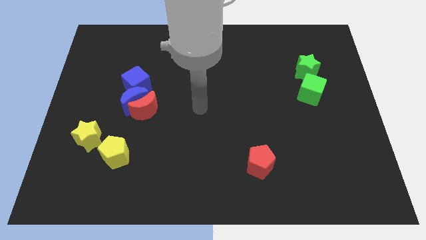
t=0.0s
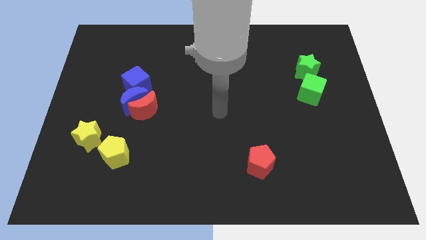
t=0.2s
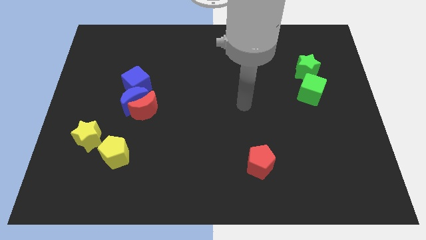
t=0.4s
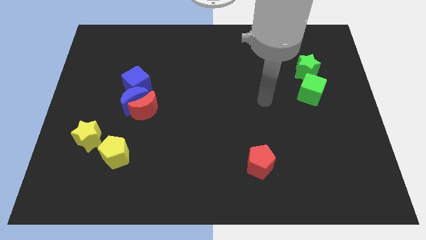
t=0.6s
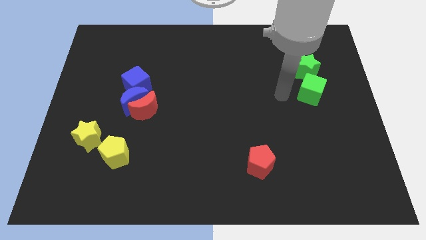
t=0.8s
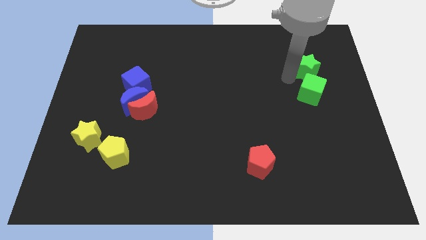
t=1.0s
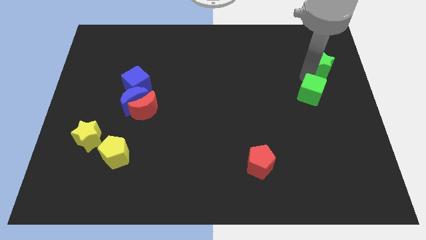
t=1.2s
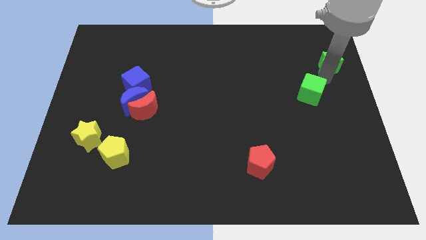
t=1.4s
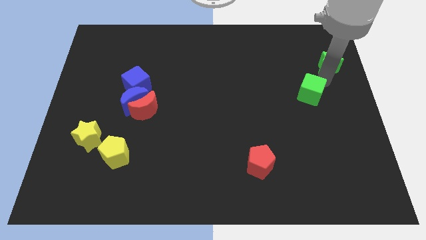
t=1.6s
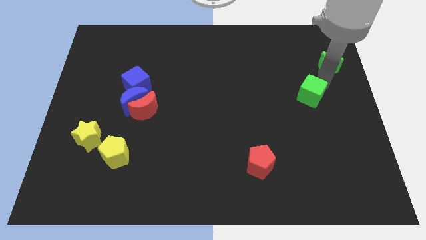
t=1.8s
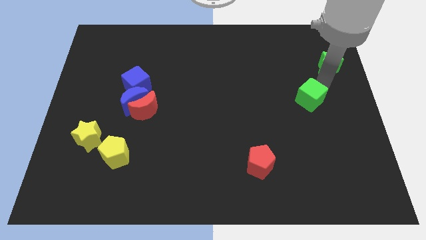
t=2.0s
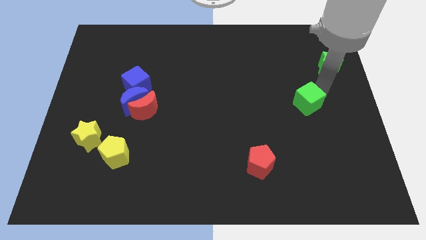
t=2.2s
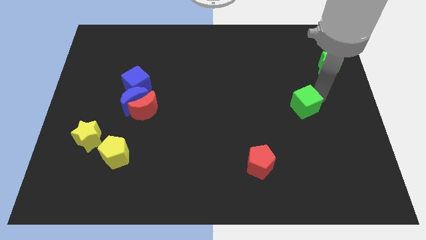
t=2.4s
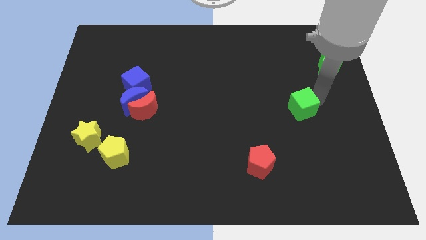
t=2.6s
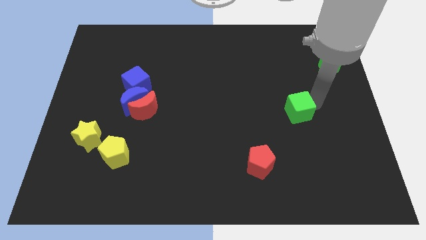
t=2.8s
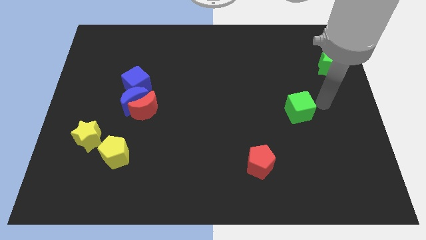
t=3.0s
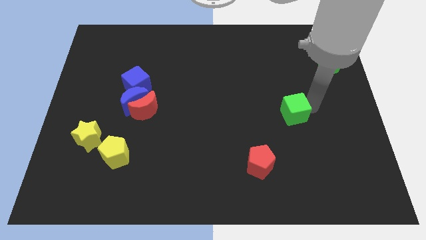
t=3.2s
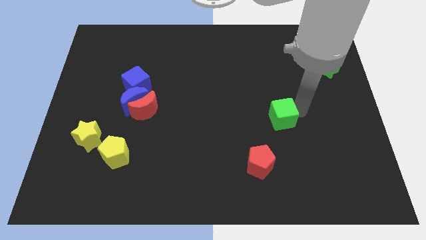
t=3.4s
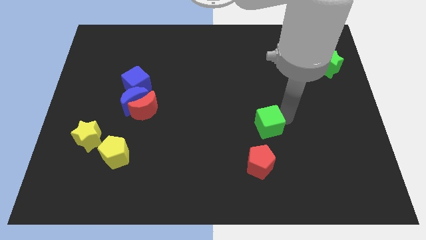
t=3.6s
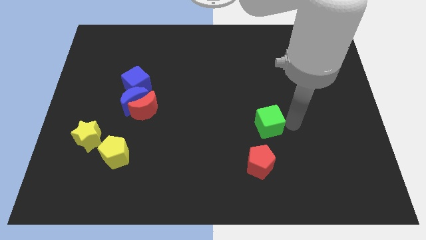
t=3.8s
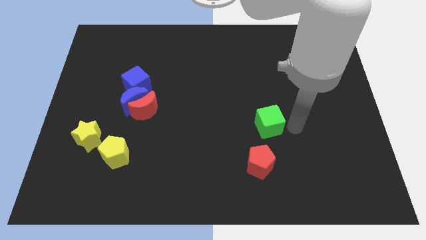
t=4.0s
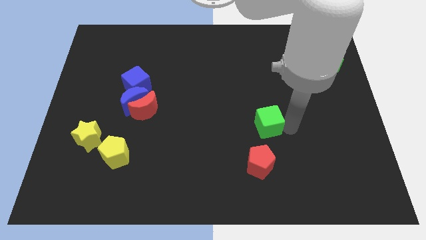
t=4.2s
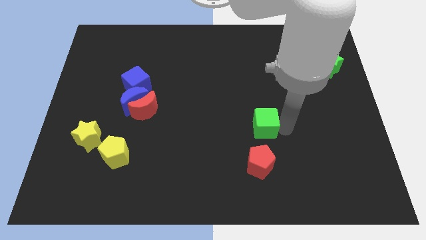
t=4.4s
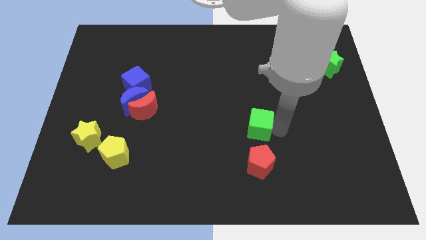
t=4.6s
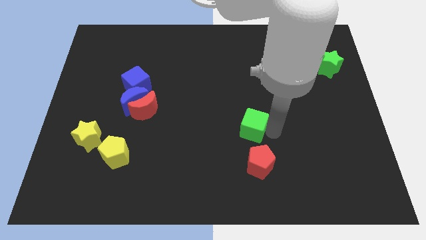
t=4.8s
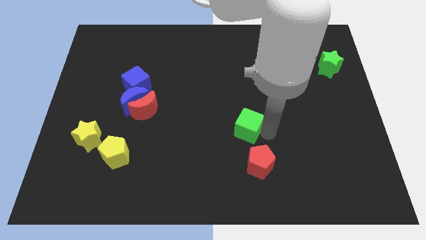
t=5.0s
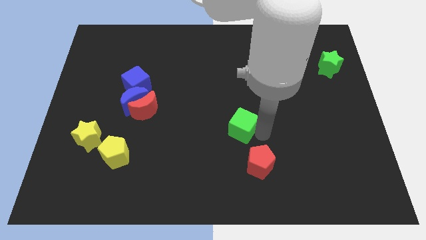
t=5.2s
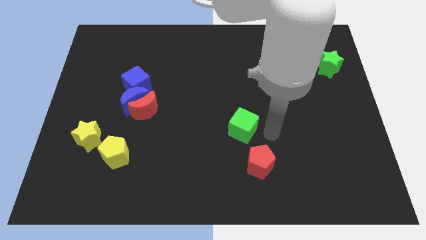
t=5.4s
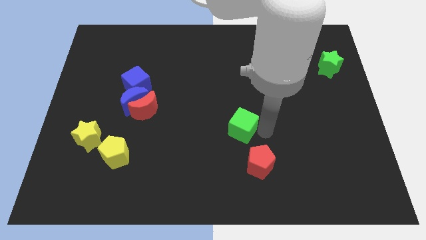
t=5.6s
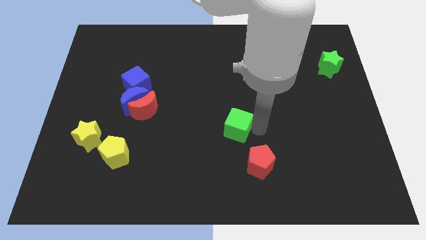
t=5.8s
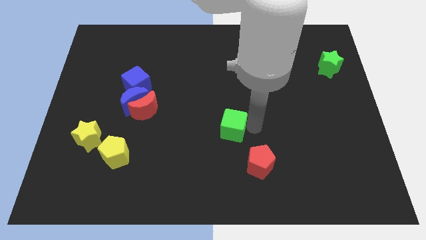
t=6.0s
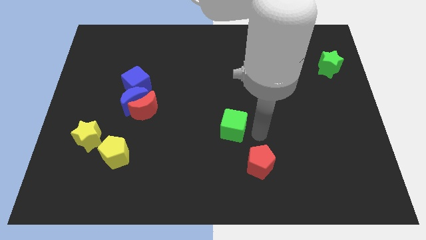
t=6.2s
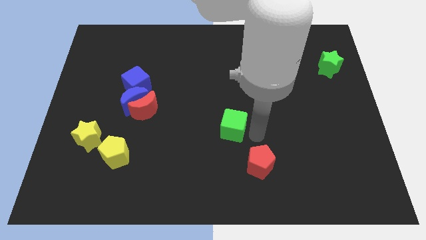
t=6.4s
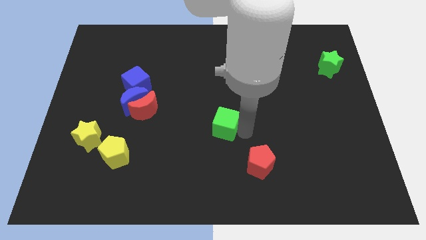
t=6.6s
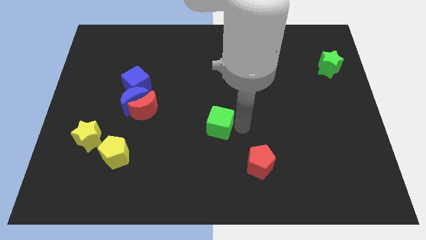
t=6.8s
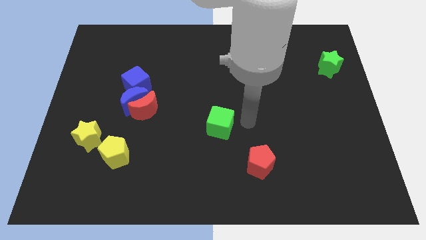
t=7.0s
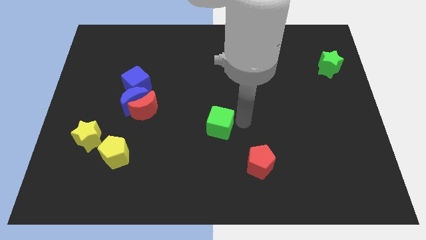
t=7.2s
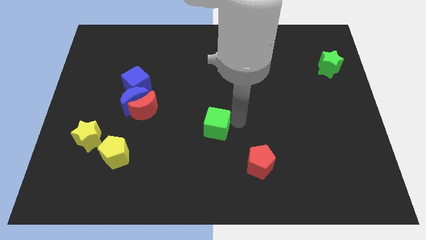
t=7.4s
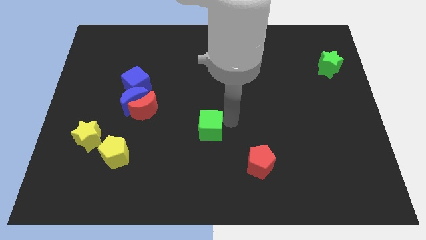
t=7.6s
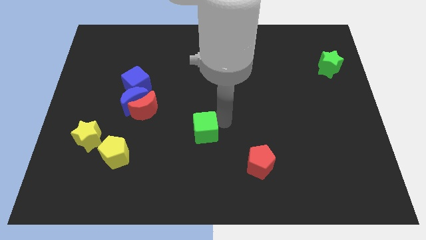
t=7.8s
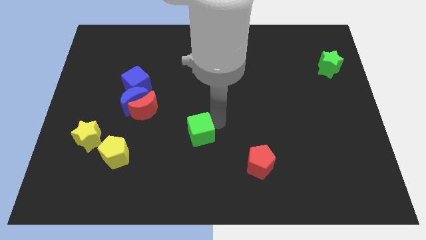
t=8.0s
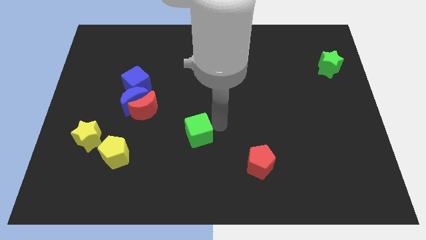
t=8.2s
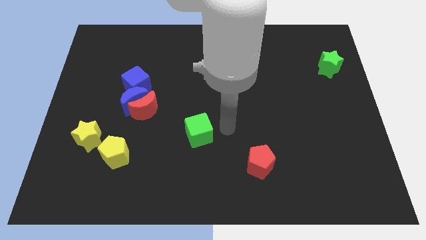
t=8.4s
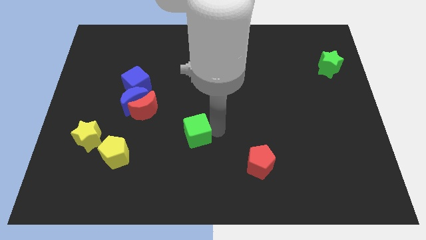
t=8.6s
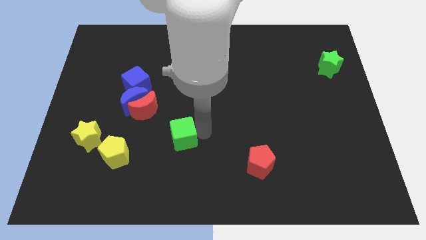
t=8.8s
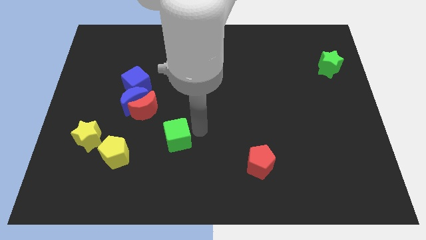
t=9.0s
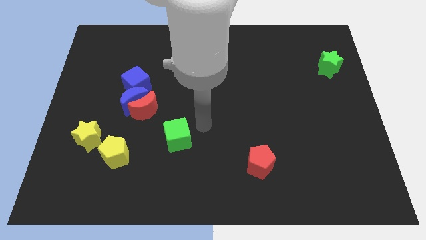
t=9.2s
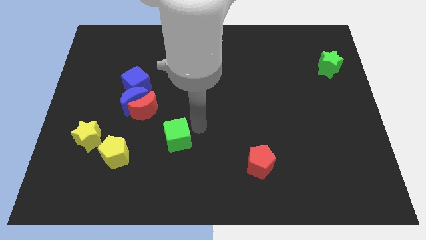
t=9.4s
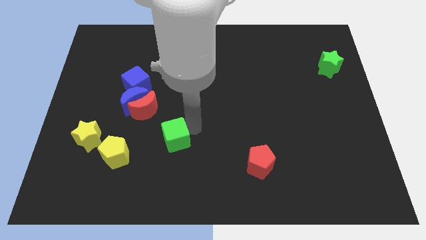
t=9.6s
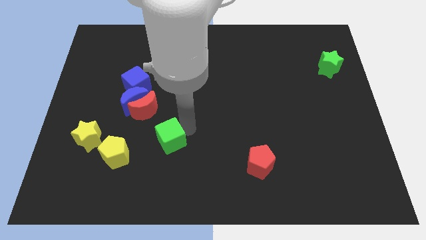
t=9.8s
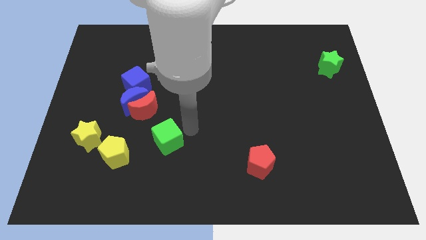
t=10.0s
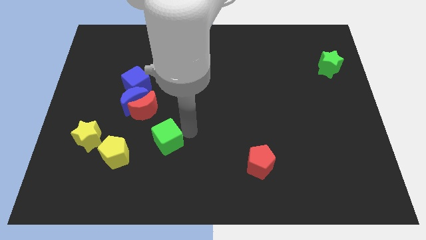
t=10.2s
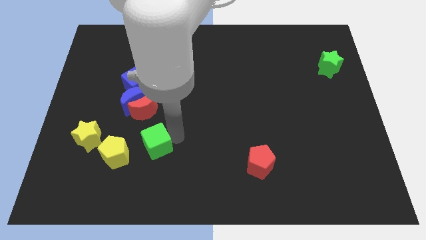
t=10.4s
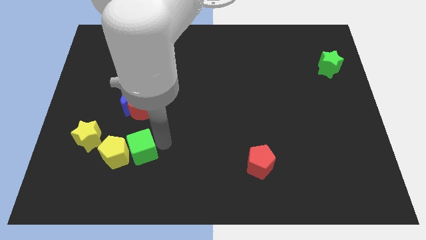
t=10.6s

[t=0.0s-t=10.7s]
put the green cube towards the yellow pentagon

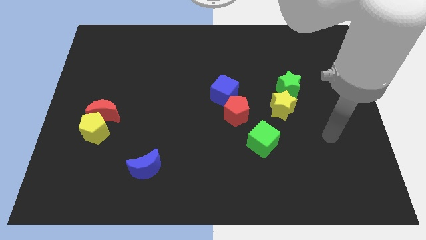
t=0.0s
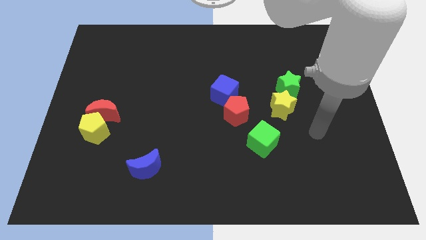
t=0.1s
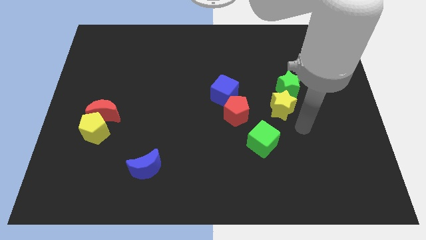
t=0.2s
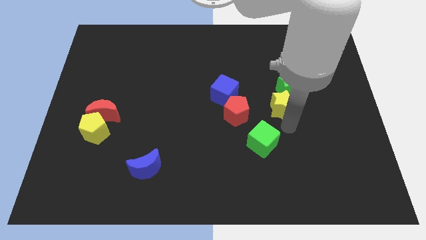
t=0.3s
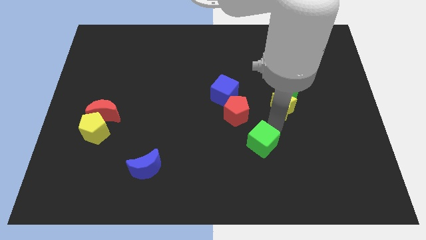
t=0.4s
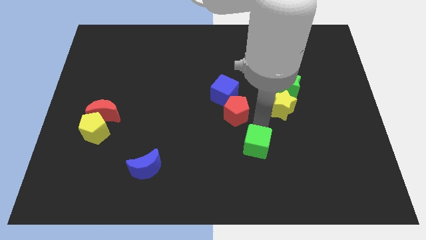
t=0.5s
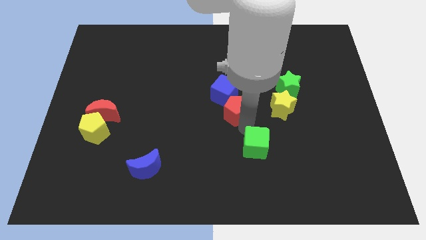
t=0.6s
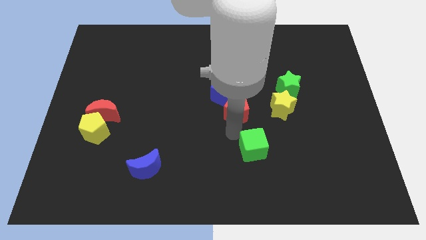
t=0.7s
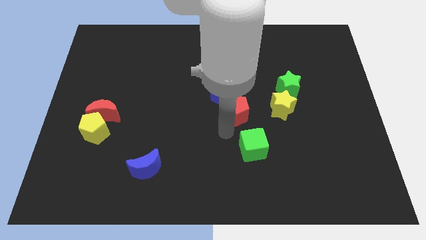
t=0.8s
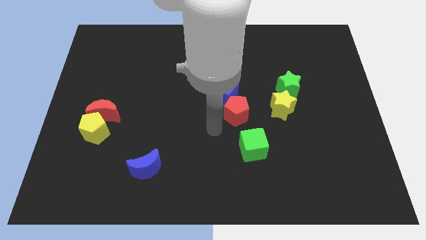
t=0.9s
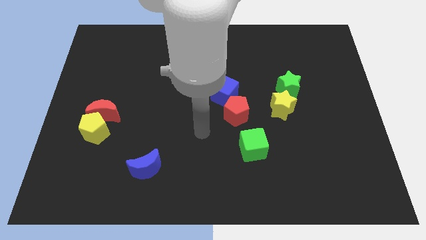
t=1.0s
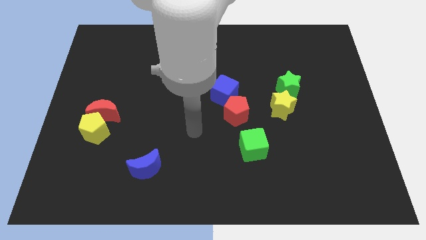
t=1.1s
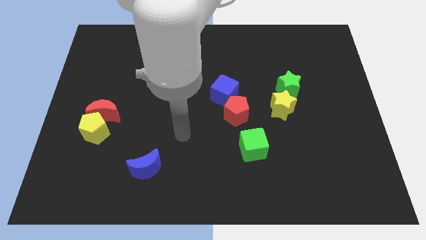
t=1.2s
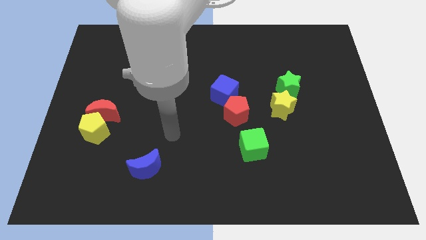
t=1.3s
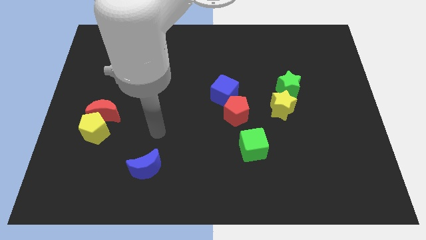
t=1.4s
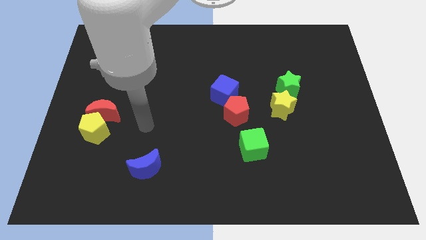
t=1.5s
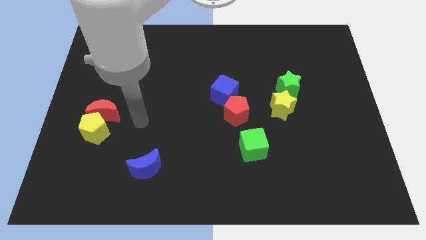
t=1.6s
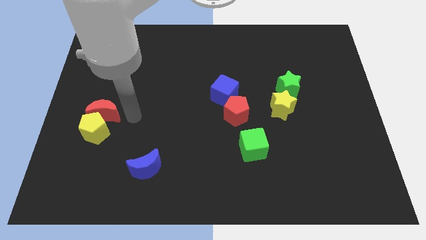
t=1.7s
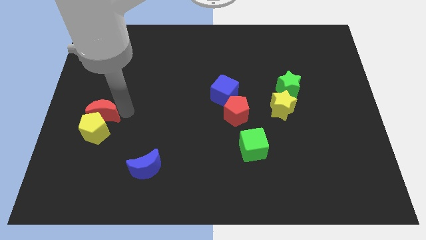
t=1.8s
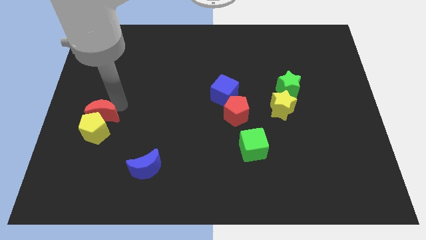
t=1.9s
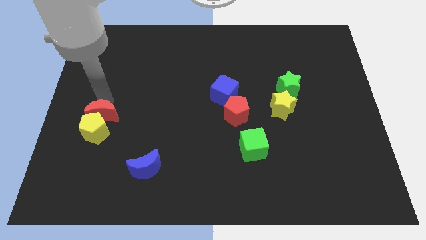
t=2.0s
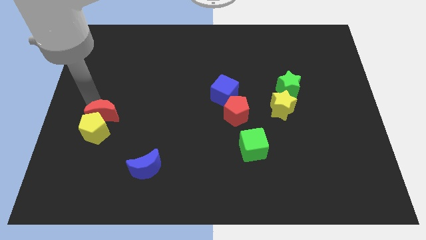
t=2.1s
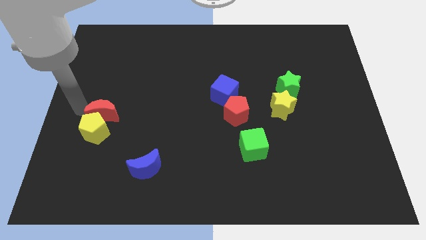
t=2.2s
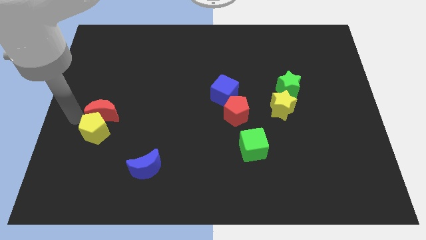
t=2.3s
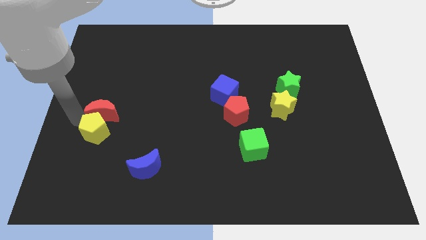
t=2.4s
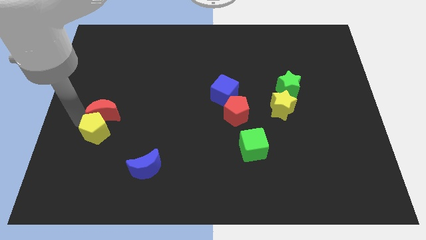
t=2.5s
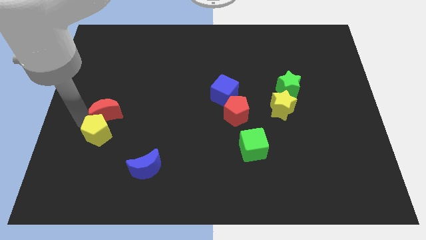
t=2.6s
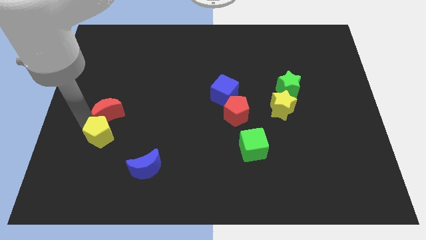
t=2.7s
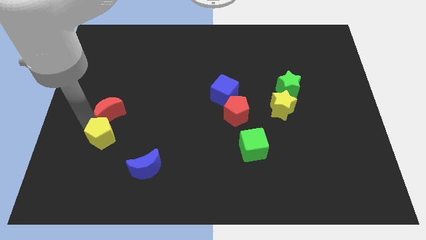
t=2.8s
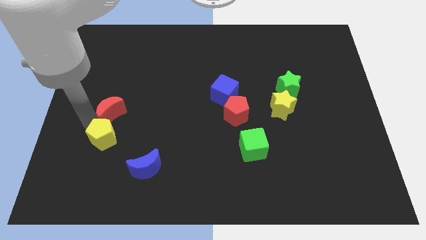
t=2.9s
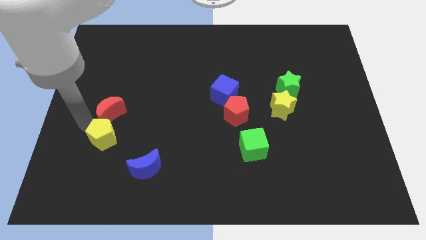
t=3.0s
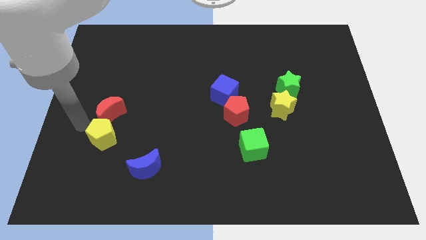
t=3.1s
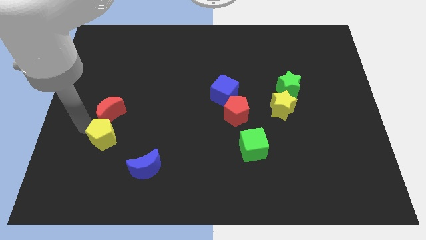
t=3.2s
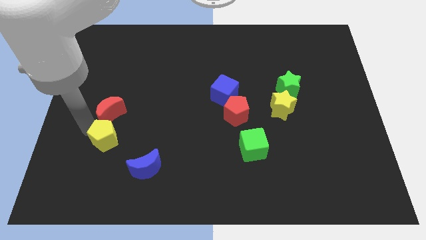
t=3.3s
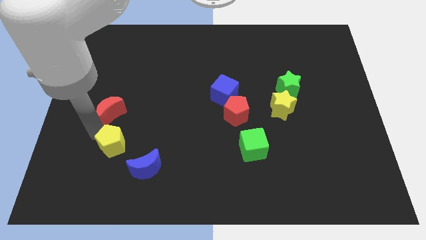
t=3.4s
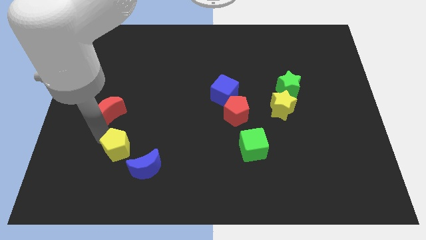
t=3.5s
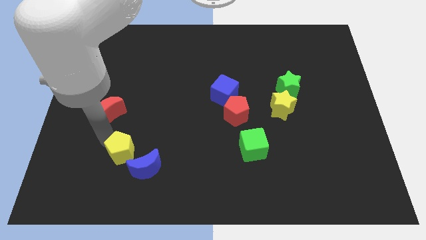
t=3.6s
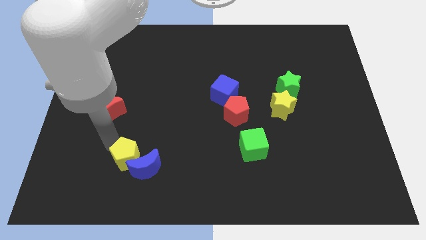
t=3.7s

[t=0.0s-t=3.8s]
slide the yellow pentagon next to the blue moon
